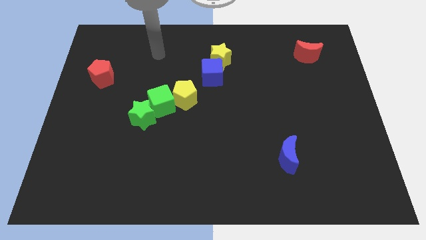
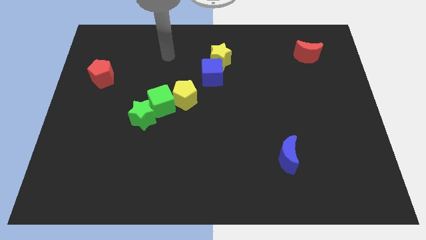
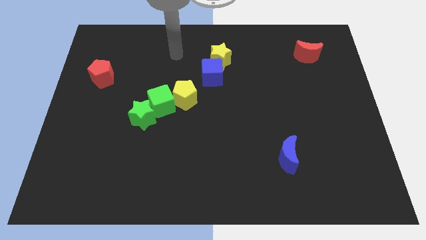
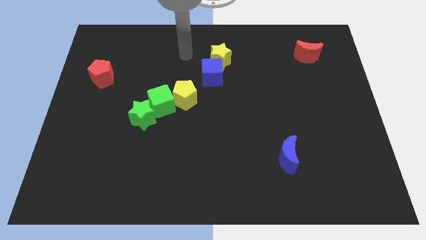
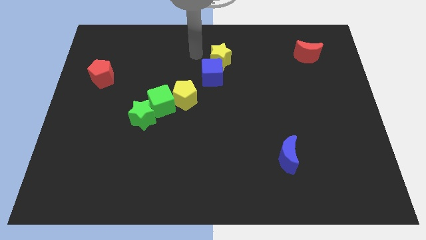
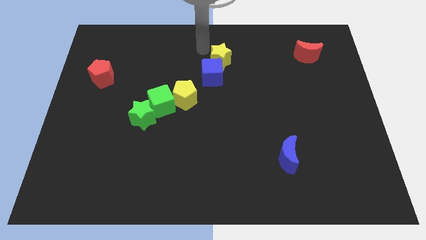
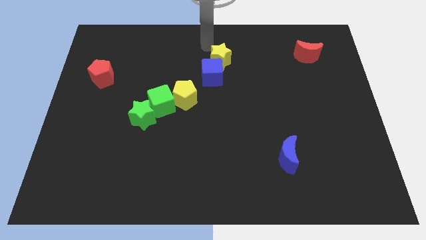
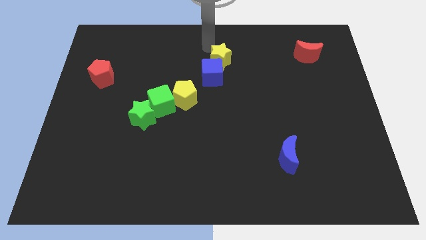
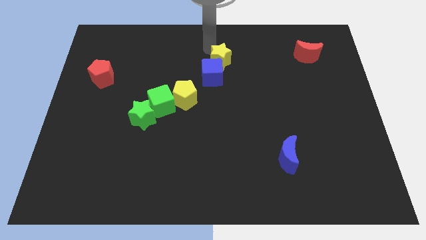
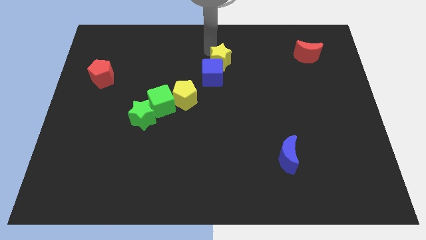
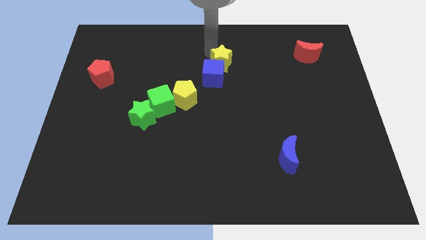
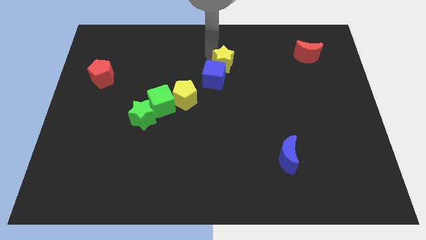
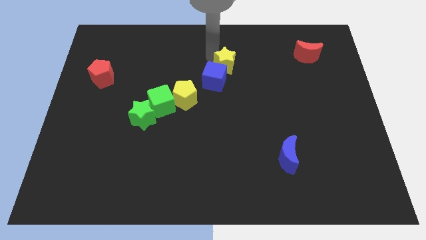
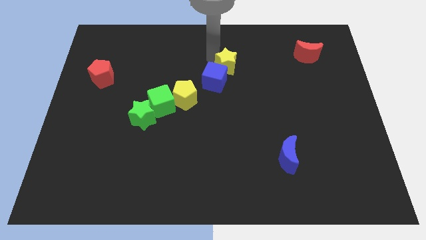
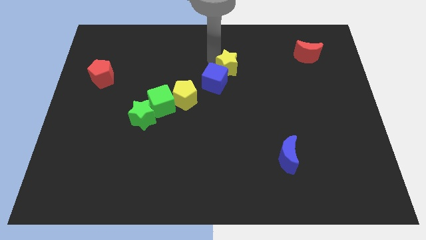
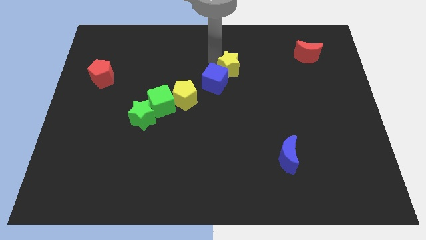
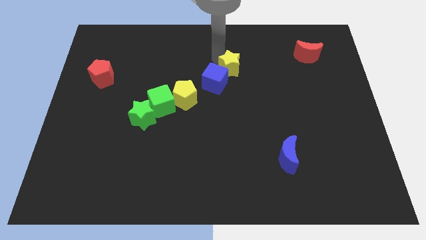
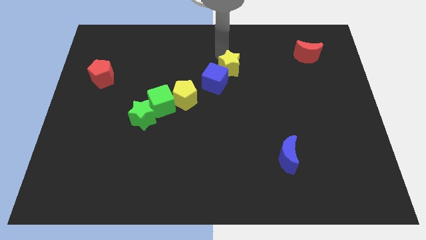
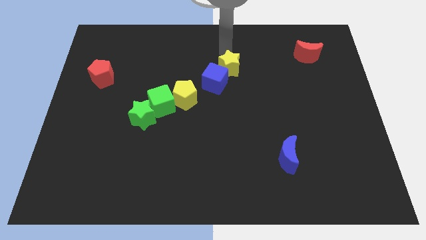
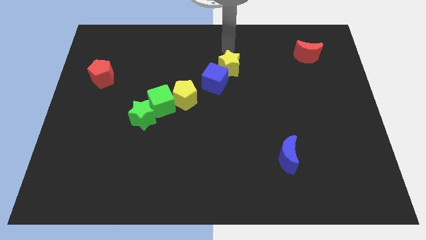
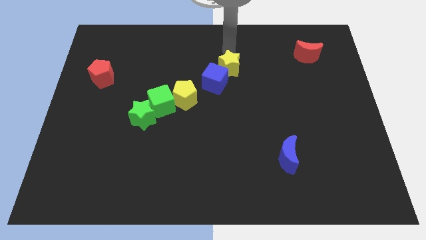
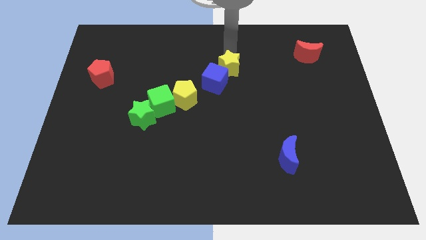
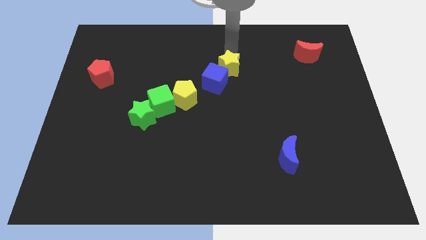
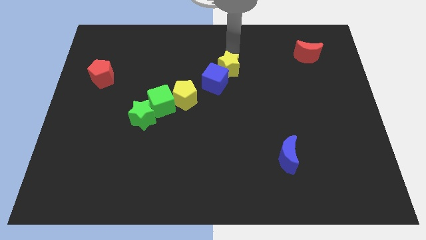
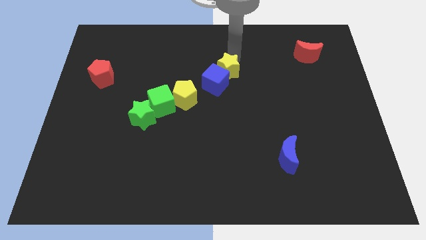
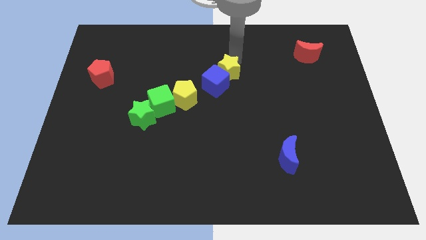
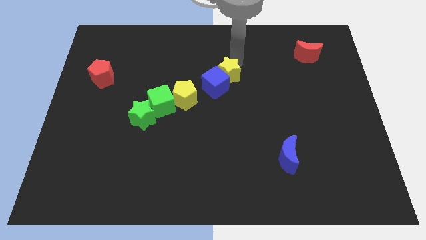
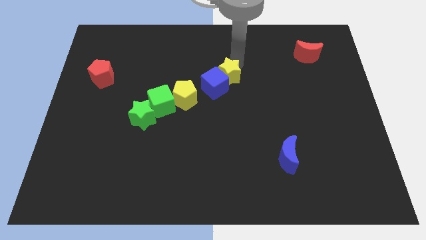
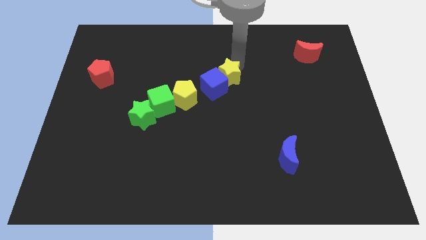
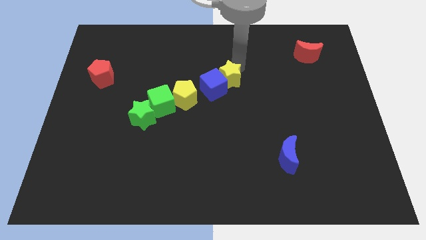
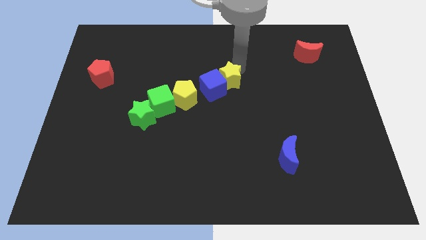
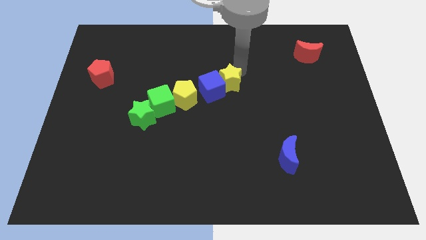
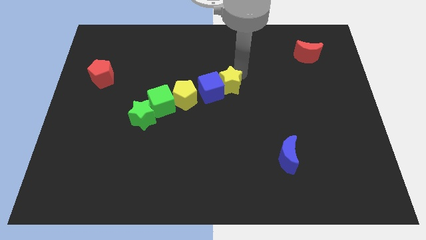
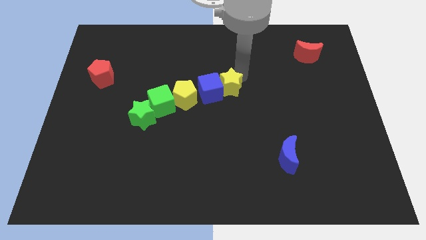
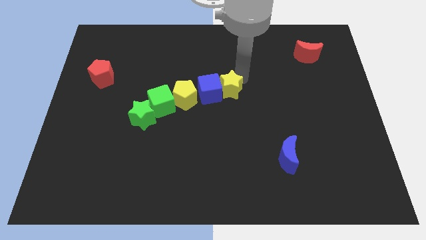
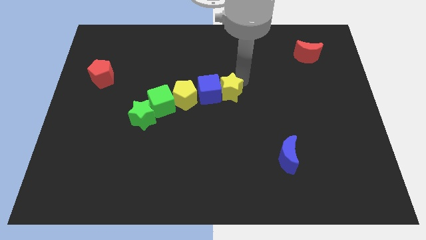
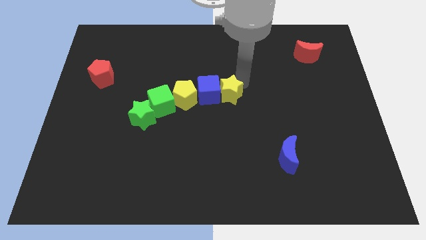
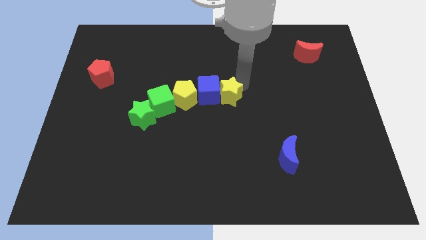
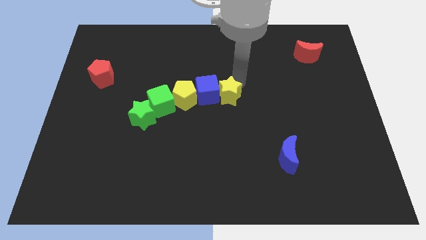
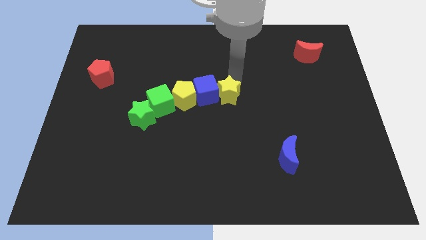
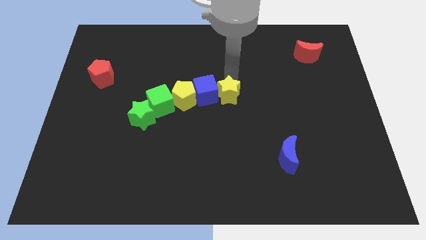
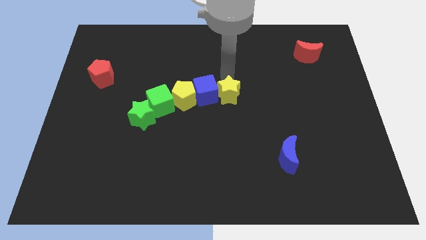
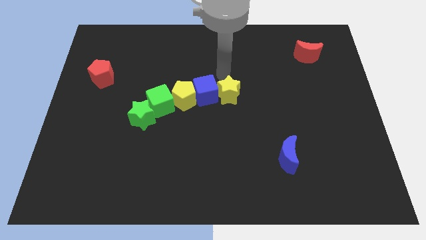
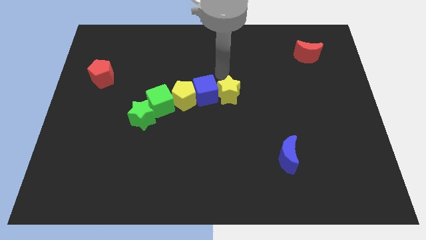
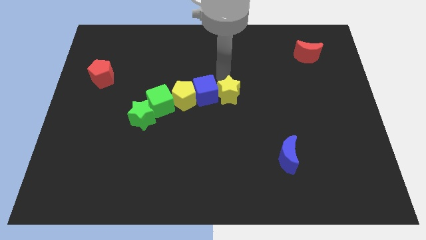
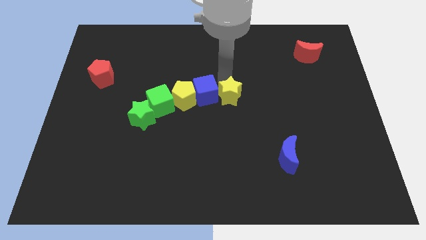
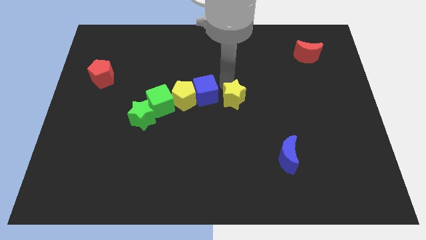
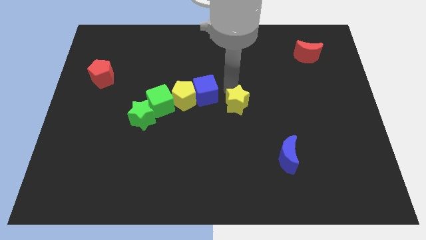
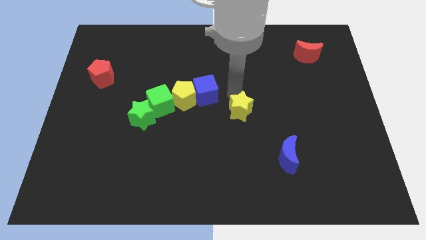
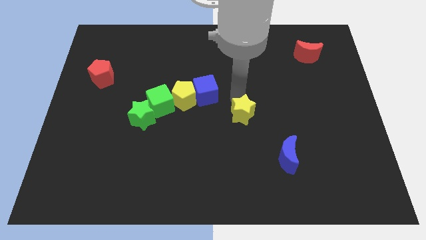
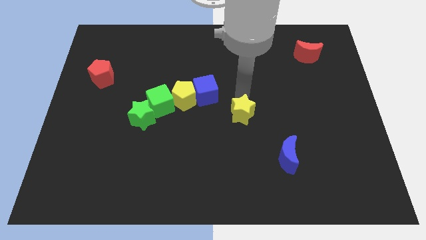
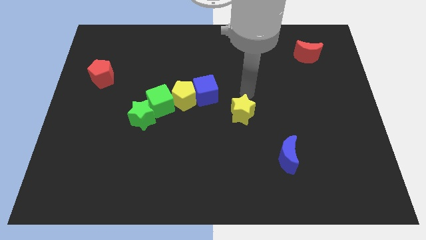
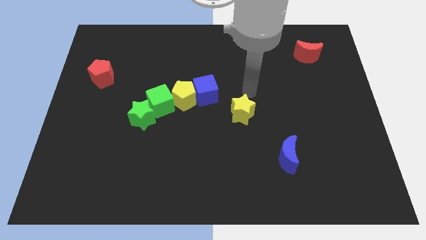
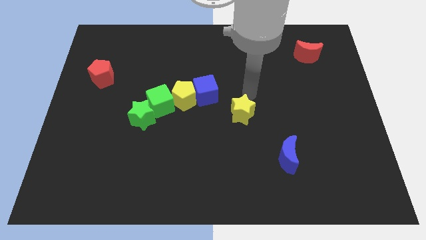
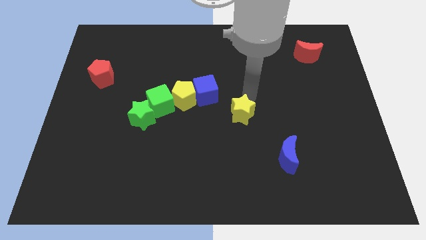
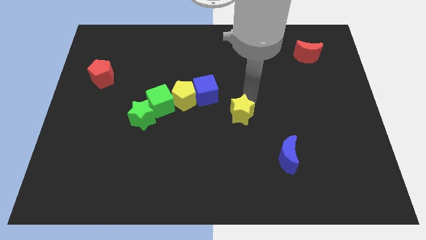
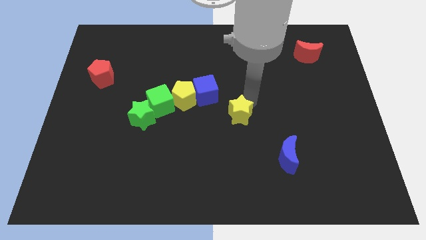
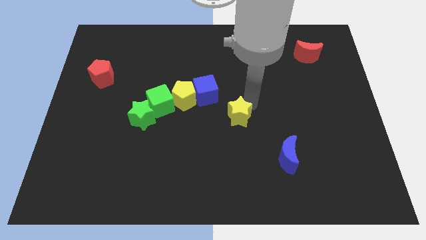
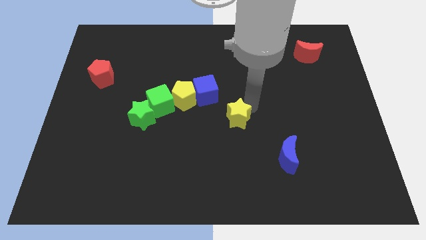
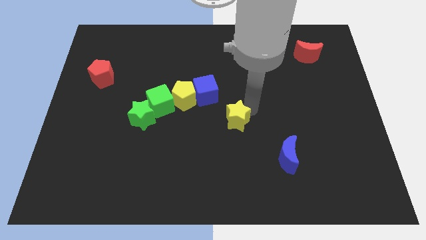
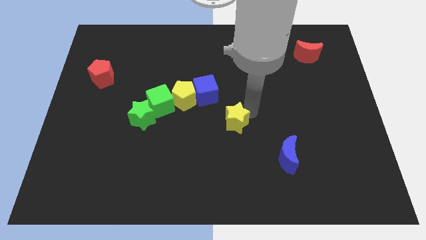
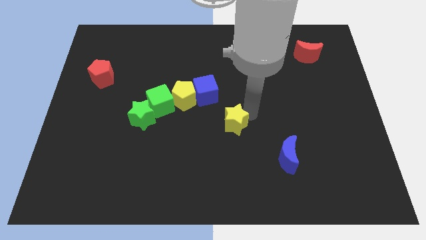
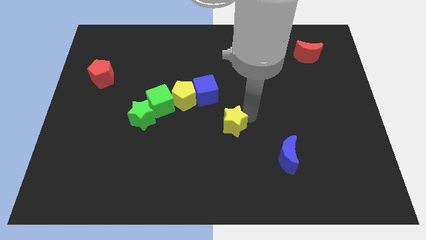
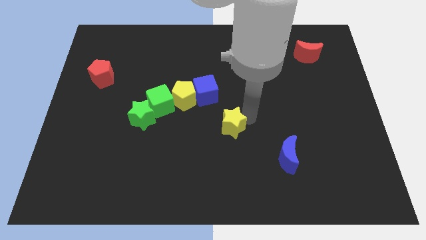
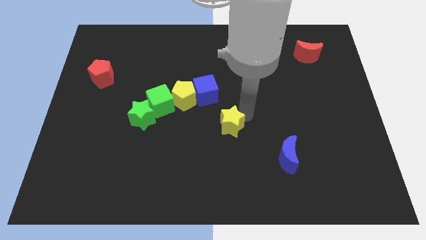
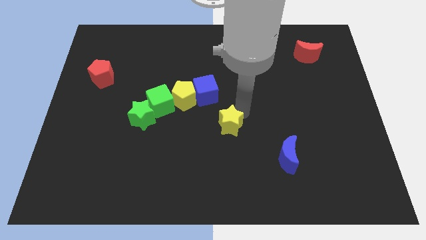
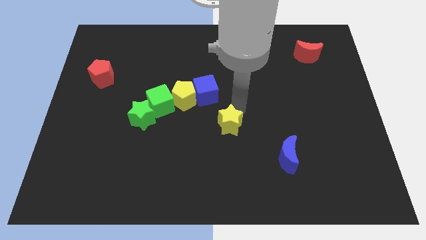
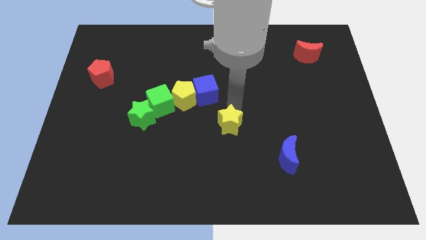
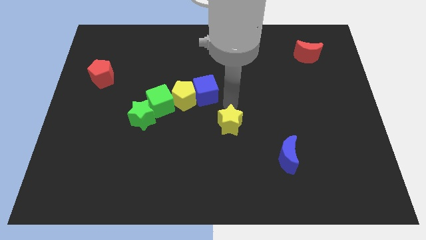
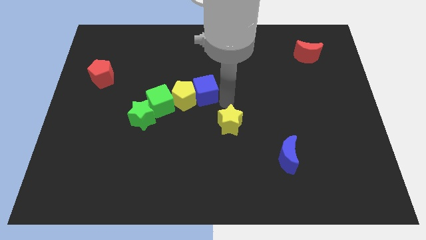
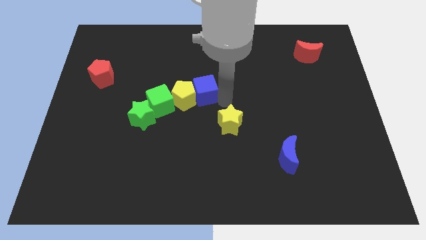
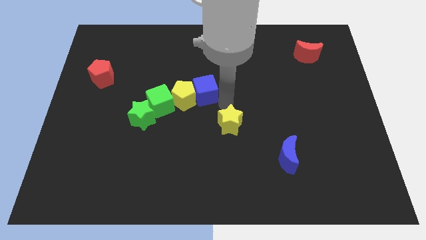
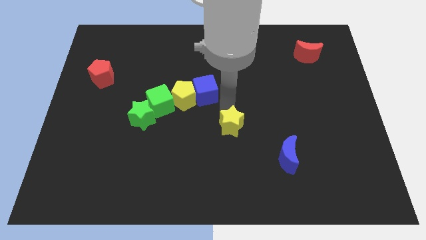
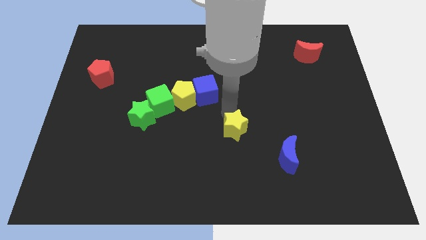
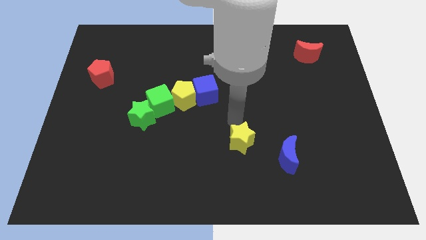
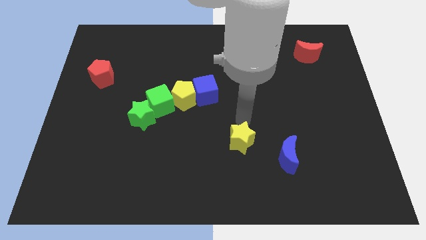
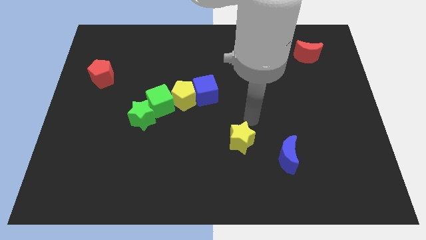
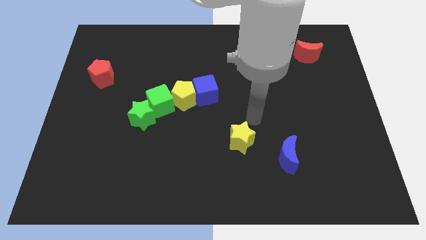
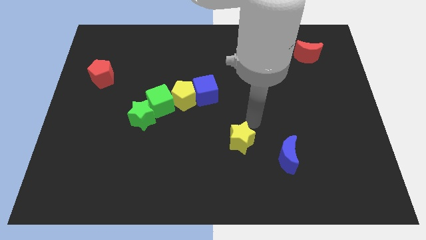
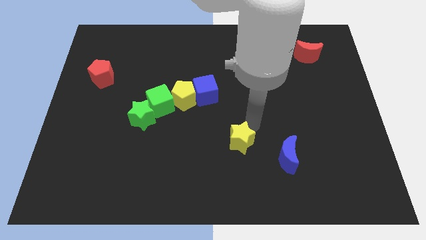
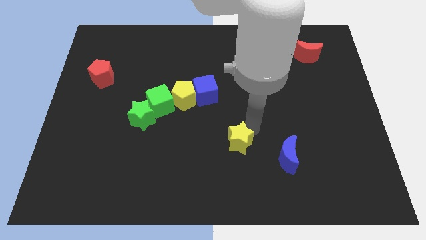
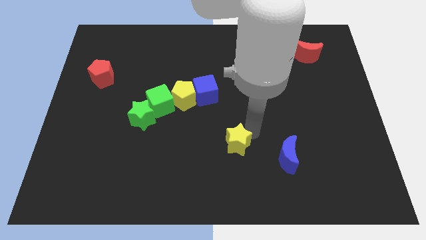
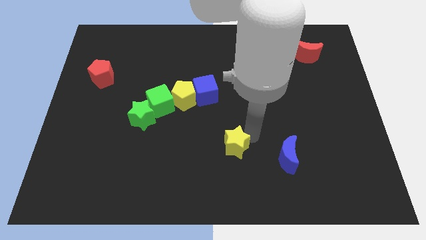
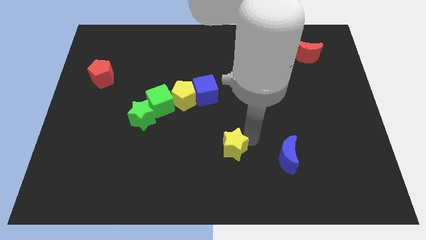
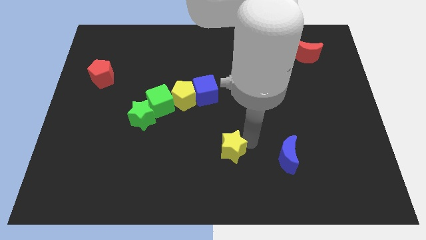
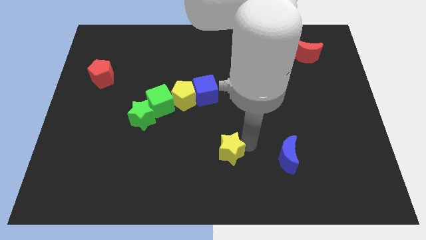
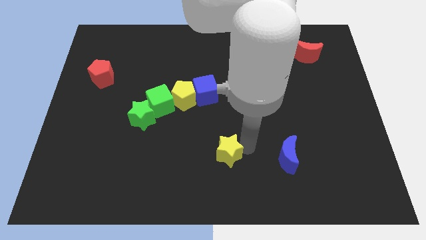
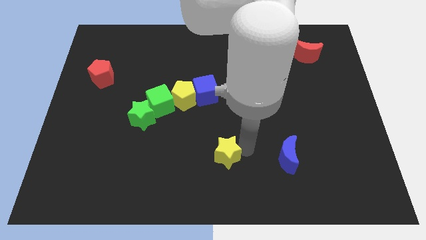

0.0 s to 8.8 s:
move the yellow star to the bottom side
